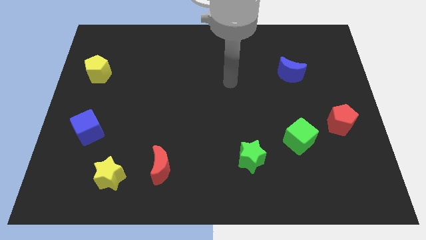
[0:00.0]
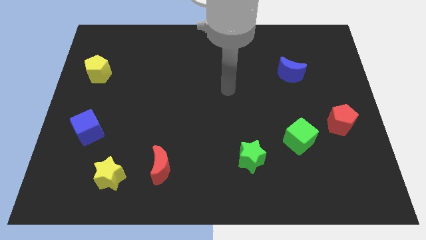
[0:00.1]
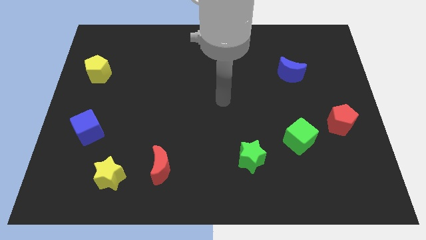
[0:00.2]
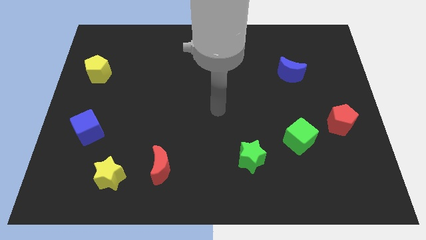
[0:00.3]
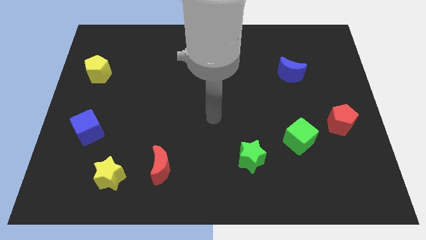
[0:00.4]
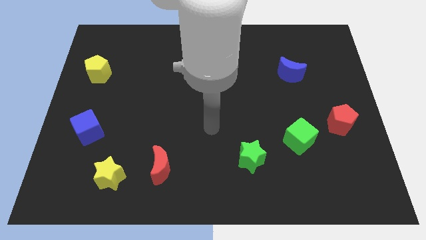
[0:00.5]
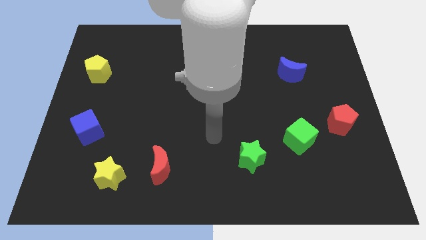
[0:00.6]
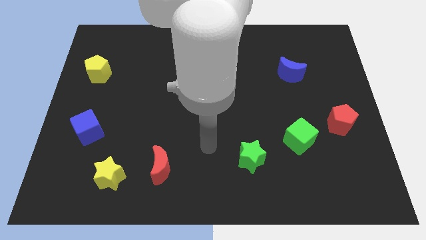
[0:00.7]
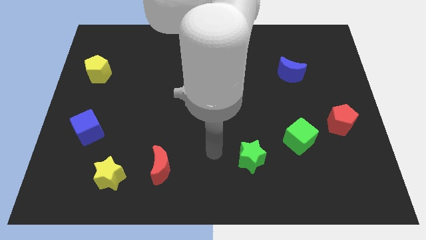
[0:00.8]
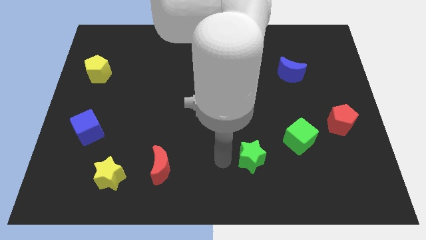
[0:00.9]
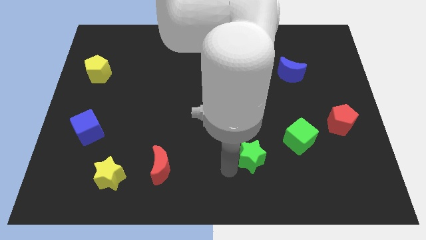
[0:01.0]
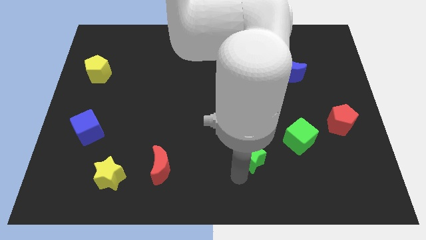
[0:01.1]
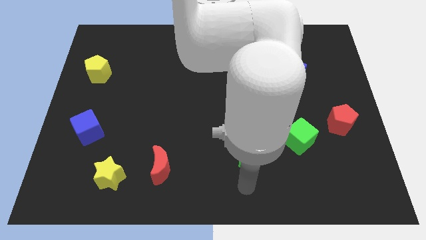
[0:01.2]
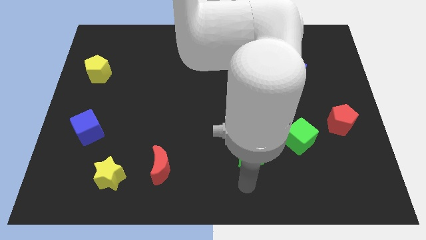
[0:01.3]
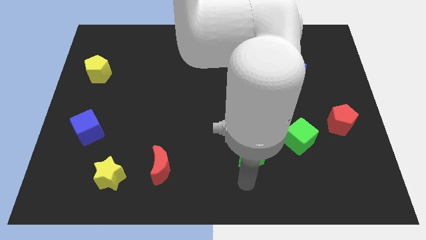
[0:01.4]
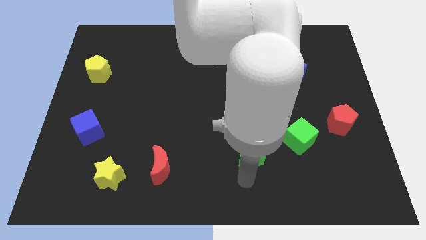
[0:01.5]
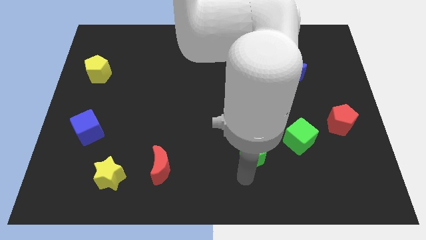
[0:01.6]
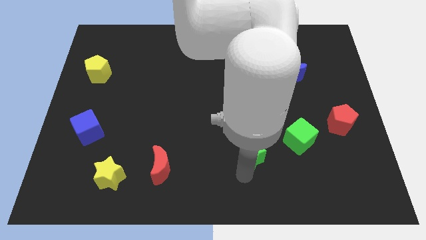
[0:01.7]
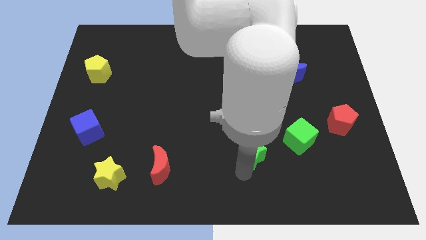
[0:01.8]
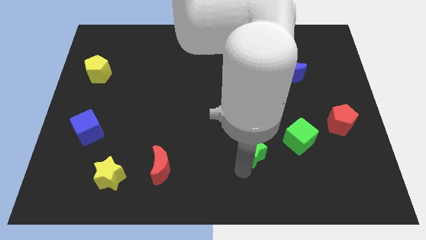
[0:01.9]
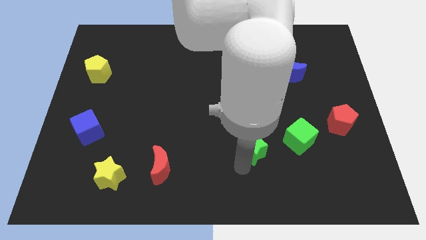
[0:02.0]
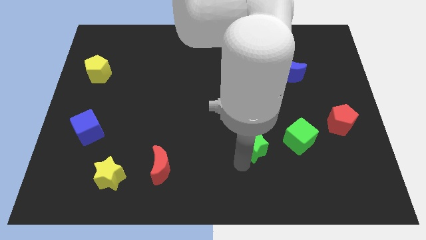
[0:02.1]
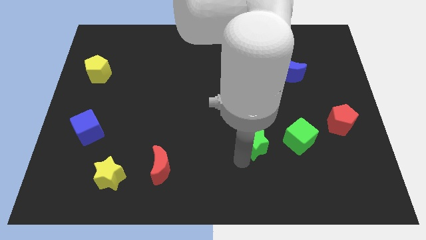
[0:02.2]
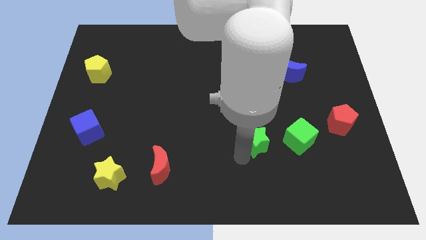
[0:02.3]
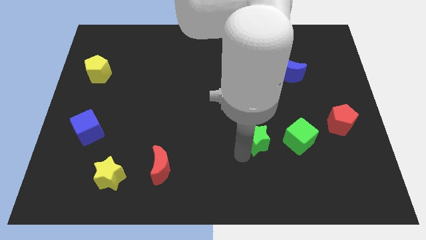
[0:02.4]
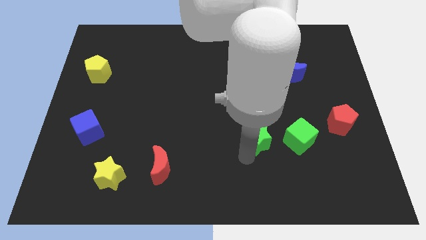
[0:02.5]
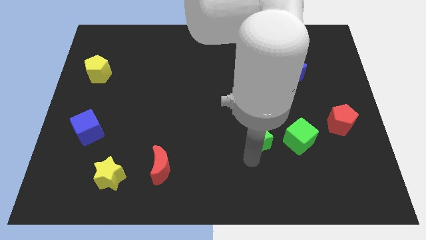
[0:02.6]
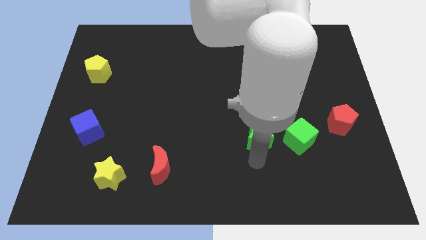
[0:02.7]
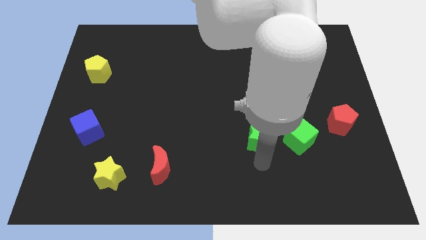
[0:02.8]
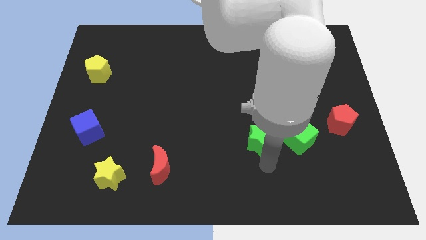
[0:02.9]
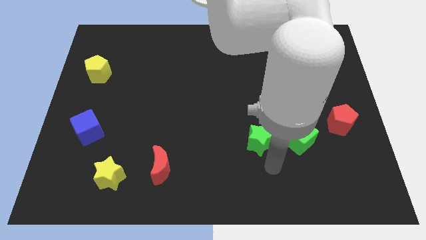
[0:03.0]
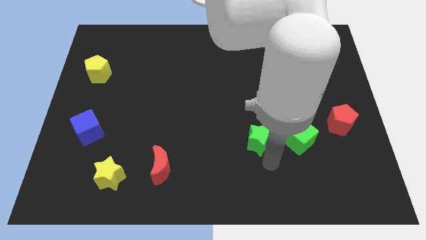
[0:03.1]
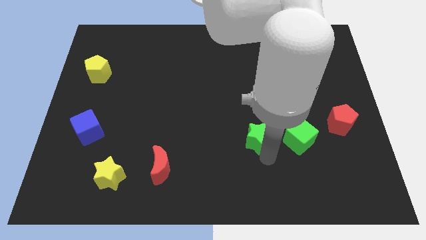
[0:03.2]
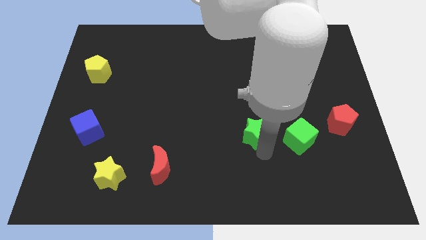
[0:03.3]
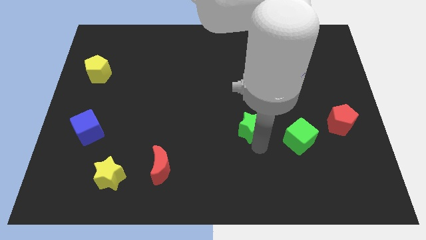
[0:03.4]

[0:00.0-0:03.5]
move the green star upwards a bit

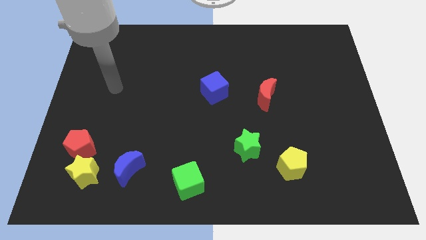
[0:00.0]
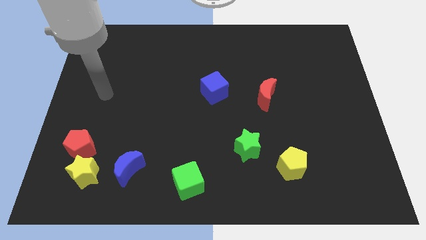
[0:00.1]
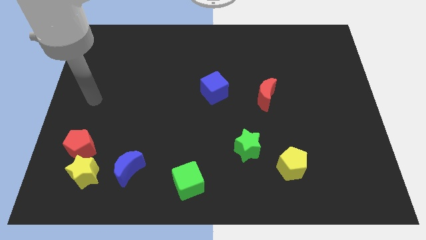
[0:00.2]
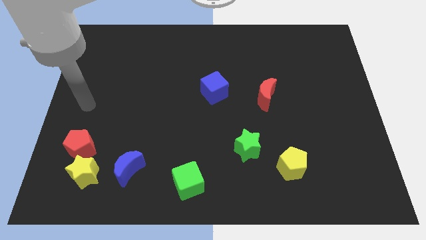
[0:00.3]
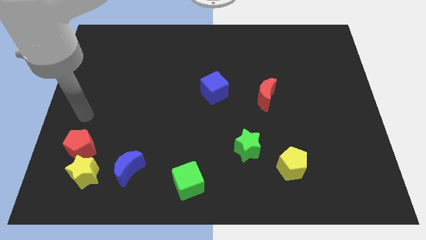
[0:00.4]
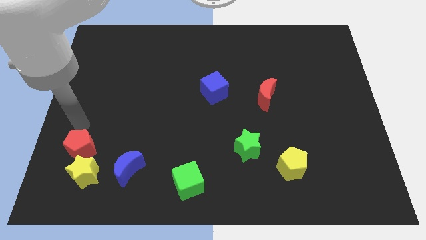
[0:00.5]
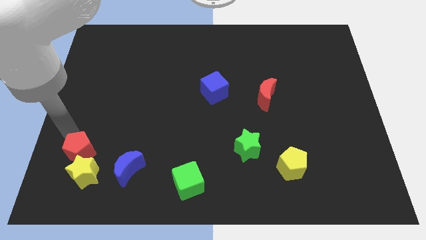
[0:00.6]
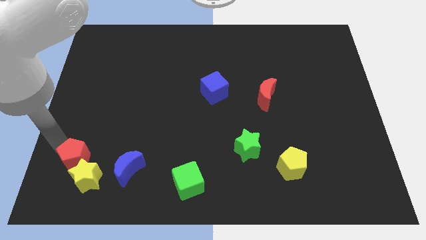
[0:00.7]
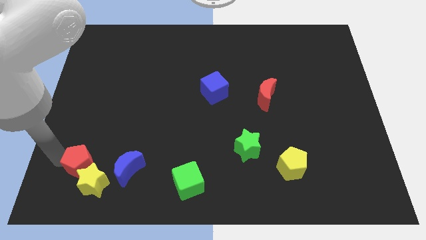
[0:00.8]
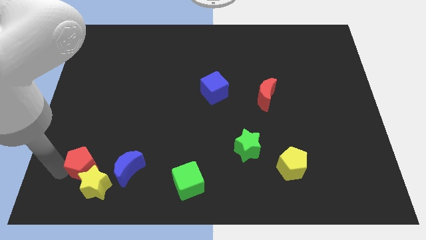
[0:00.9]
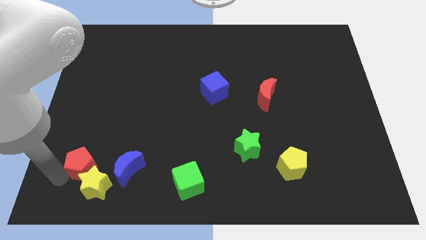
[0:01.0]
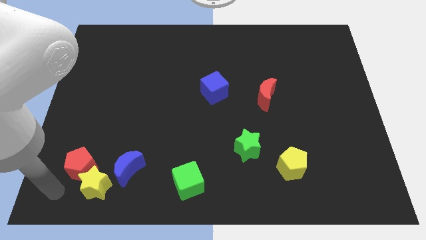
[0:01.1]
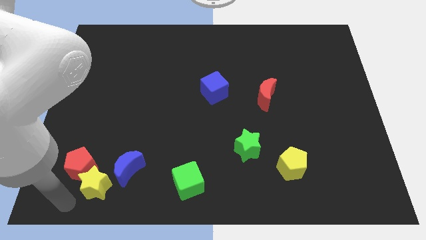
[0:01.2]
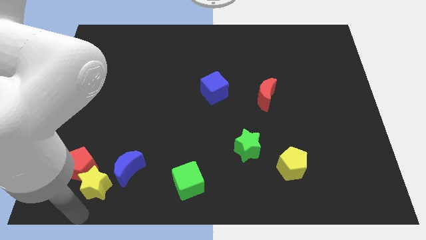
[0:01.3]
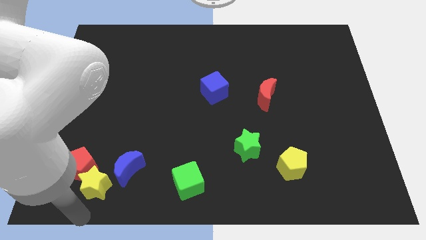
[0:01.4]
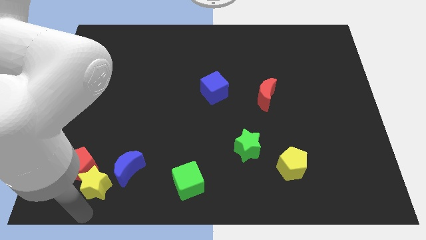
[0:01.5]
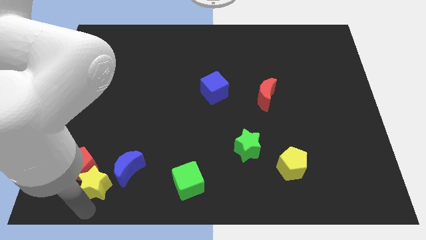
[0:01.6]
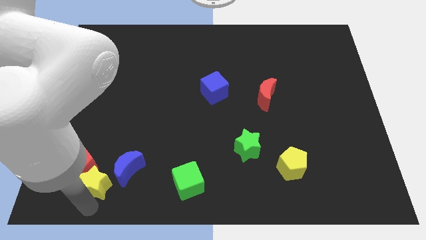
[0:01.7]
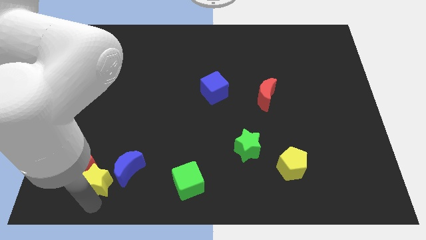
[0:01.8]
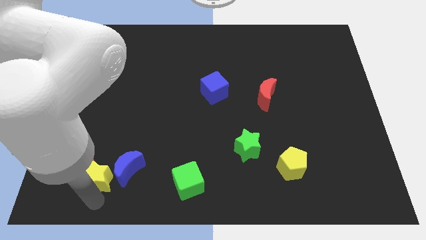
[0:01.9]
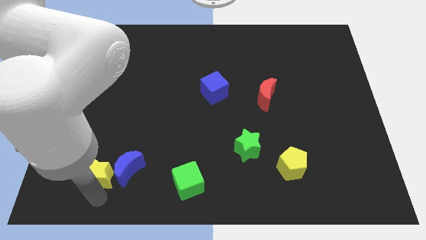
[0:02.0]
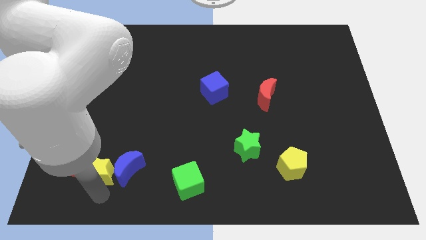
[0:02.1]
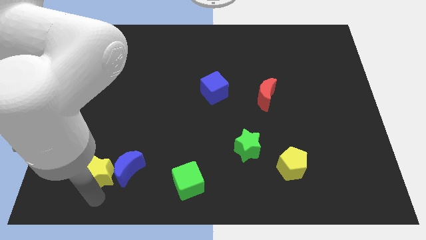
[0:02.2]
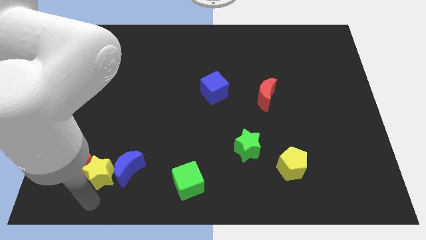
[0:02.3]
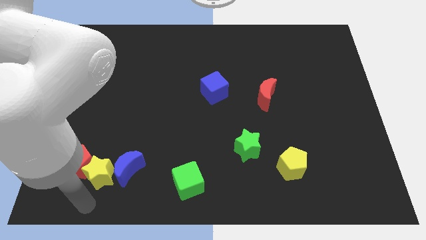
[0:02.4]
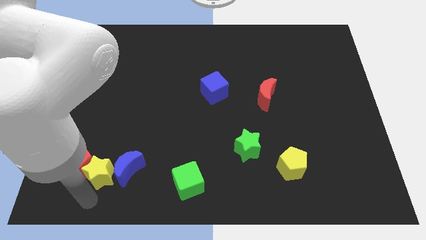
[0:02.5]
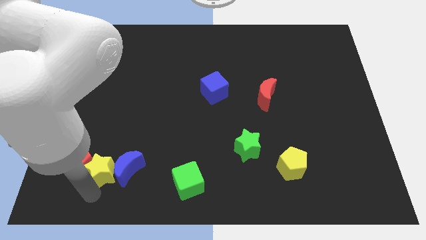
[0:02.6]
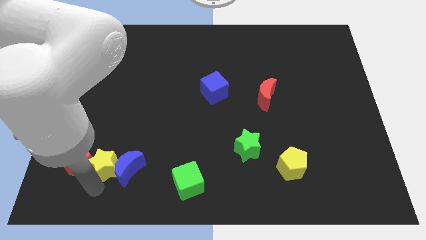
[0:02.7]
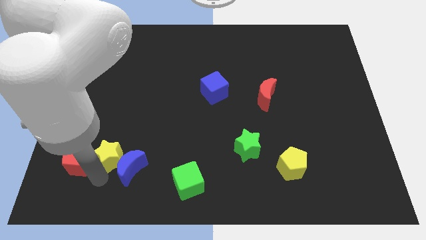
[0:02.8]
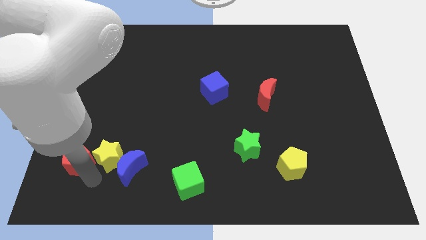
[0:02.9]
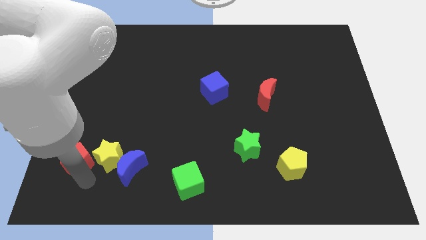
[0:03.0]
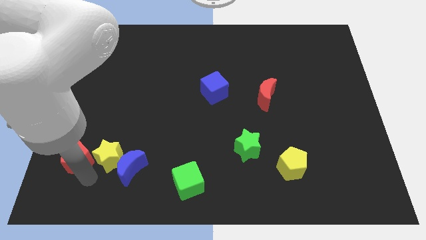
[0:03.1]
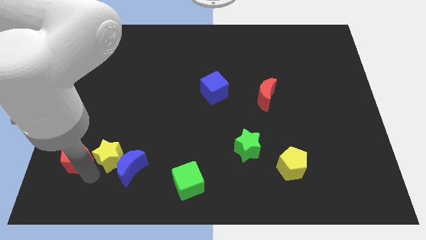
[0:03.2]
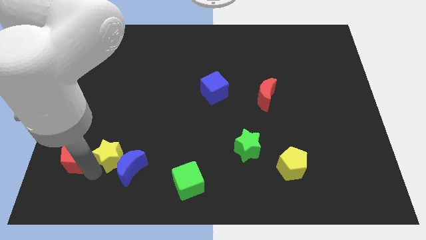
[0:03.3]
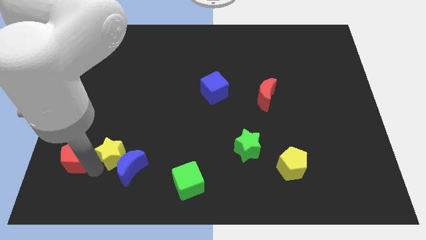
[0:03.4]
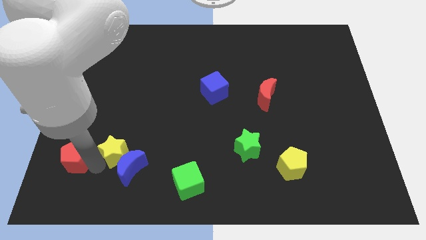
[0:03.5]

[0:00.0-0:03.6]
move the yellow star a little bit diagonally up and to the right

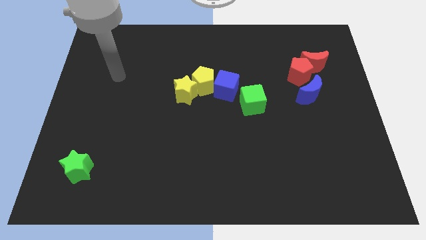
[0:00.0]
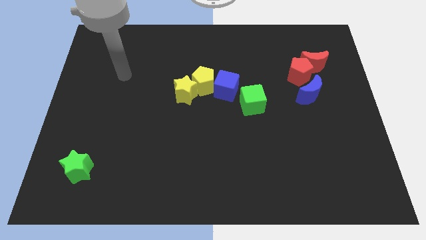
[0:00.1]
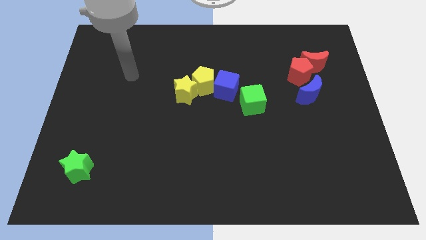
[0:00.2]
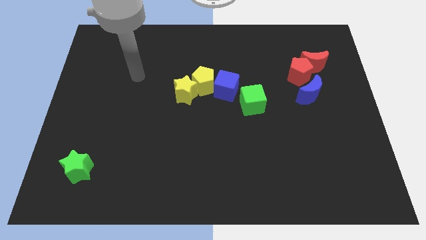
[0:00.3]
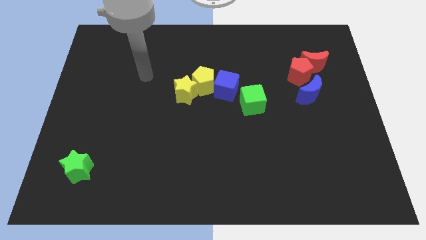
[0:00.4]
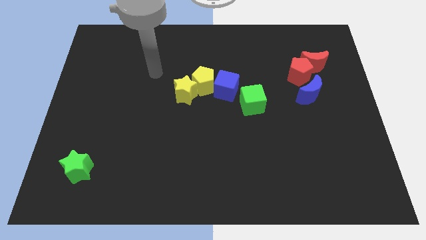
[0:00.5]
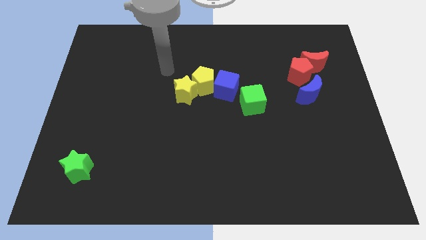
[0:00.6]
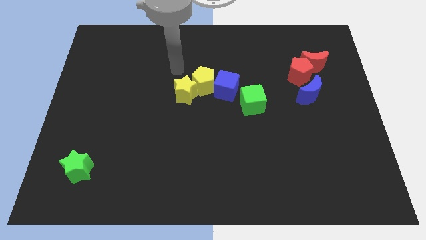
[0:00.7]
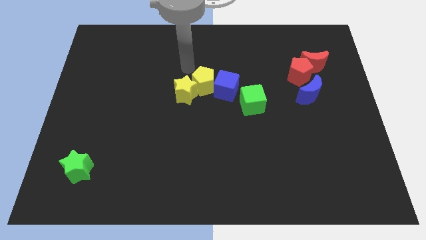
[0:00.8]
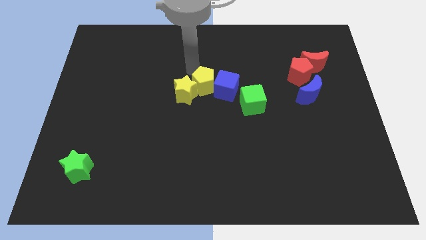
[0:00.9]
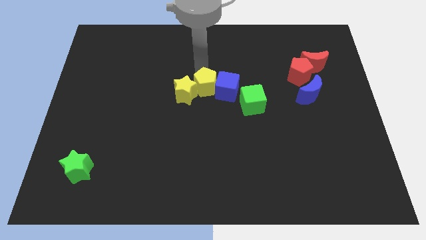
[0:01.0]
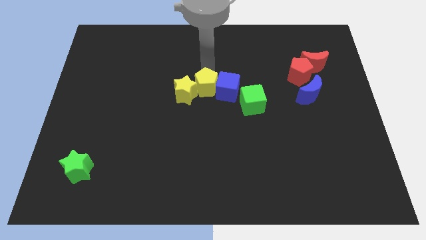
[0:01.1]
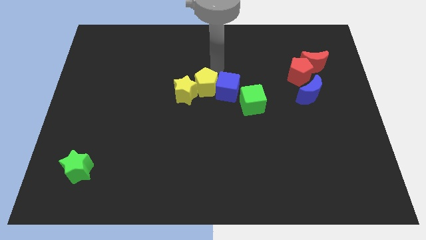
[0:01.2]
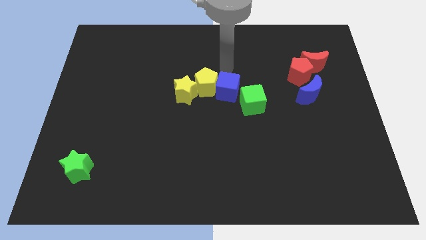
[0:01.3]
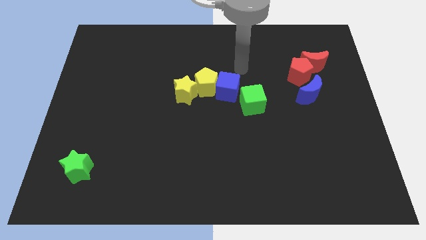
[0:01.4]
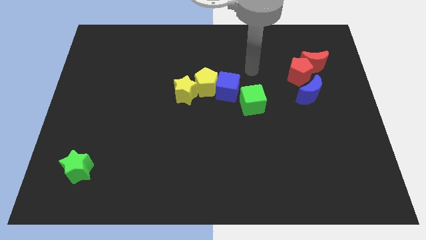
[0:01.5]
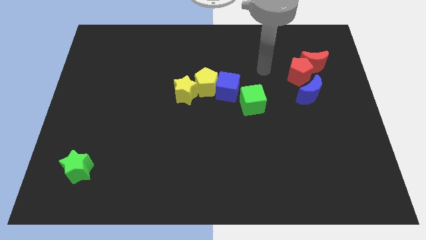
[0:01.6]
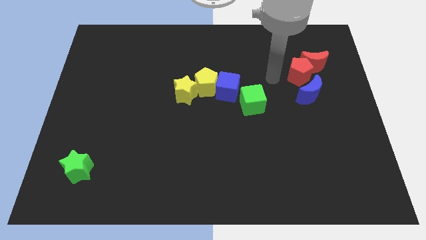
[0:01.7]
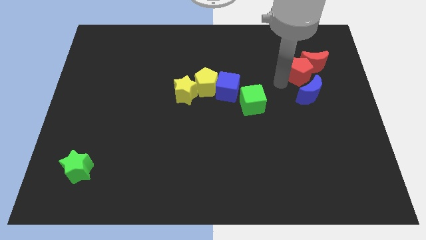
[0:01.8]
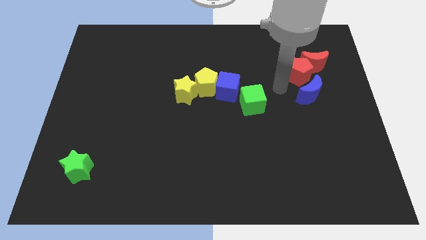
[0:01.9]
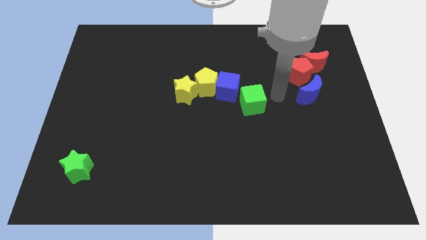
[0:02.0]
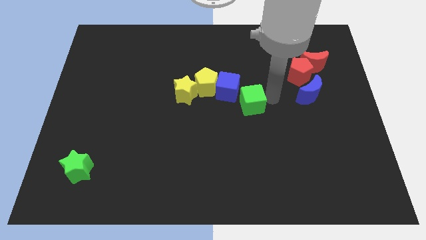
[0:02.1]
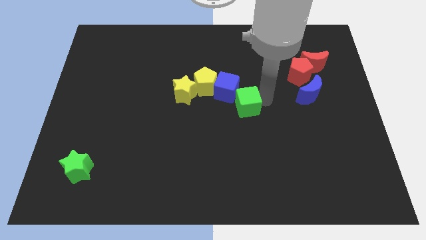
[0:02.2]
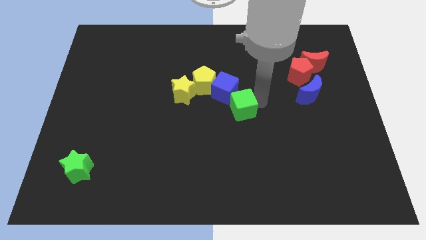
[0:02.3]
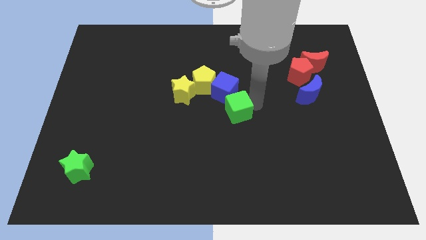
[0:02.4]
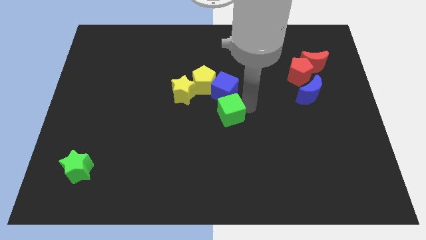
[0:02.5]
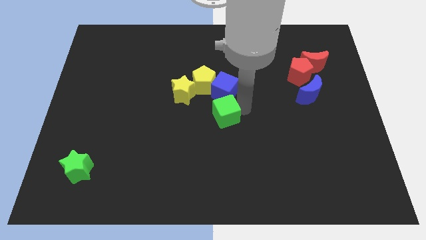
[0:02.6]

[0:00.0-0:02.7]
slightly move the green cube down and to the left
